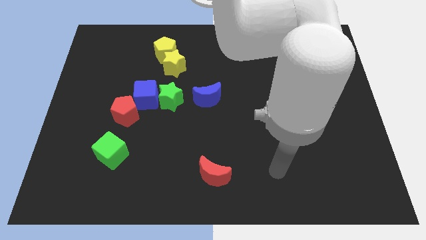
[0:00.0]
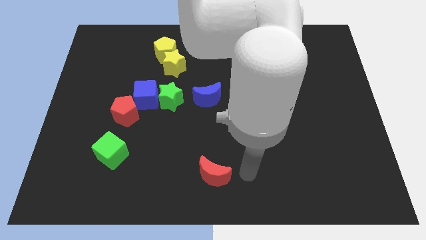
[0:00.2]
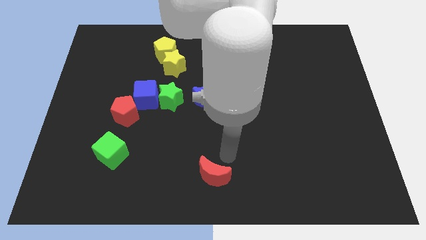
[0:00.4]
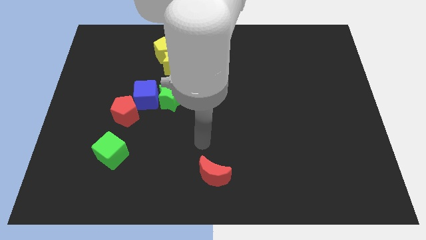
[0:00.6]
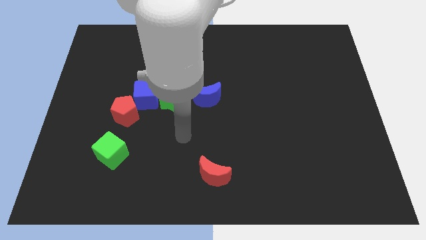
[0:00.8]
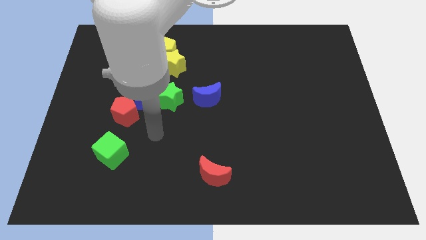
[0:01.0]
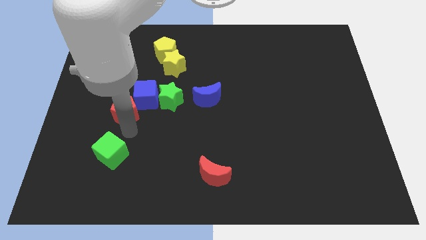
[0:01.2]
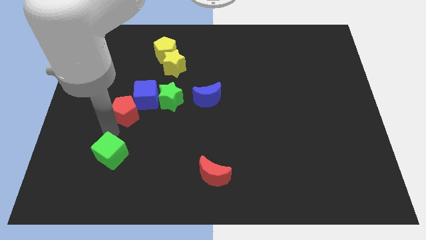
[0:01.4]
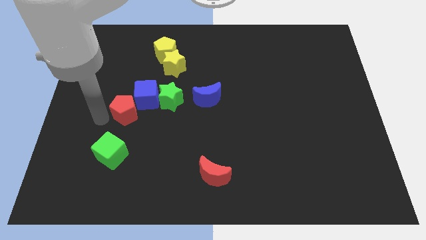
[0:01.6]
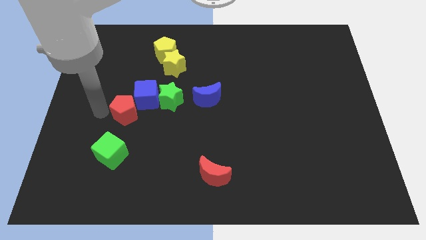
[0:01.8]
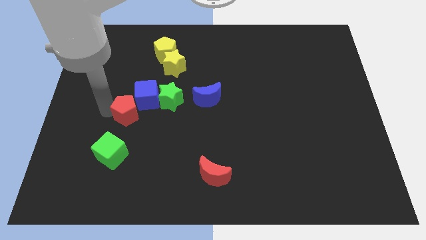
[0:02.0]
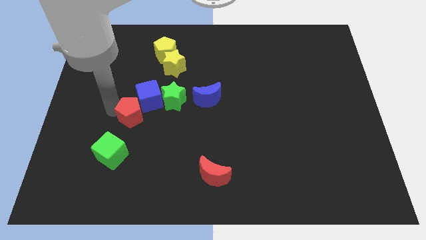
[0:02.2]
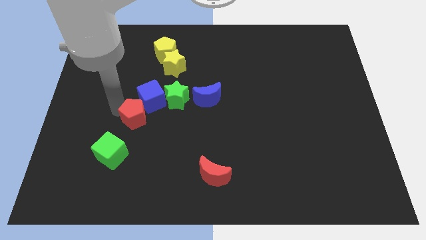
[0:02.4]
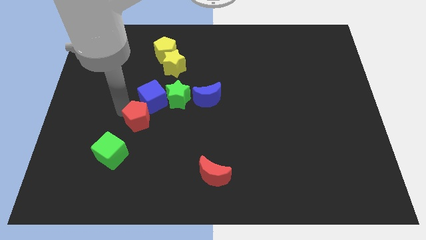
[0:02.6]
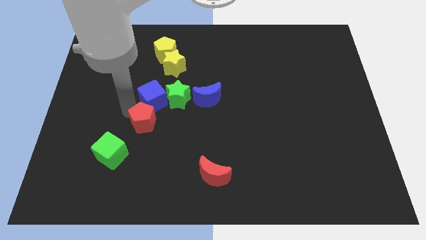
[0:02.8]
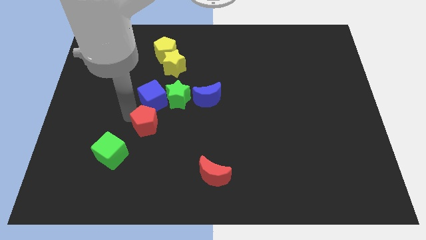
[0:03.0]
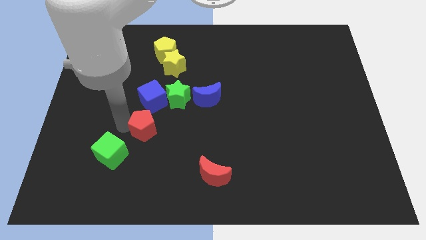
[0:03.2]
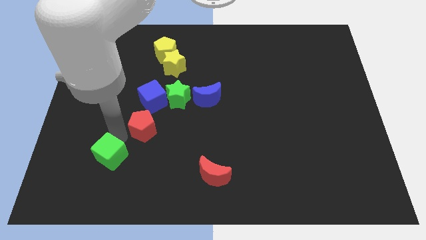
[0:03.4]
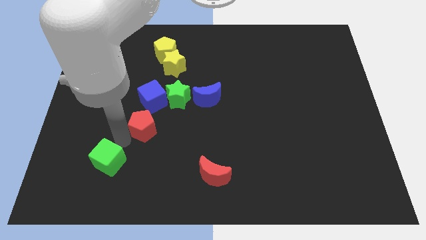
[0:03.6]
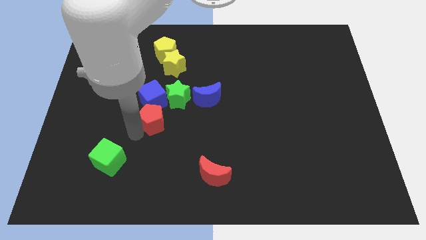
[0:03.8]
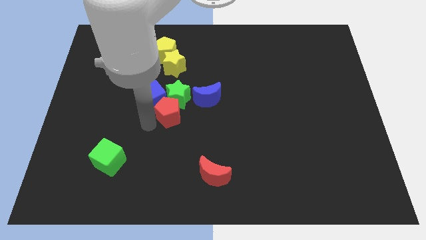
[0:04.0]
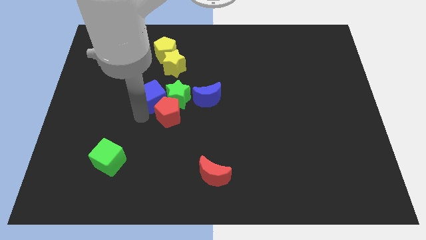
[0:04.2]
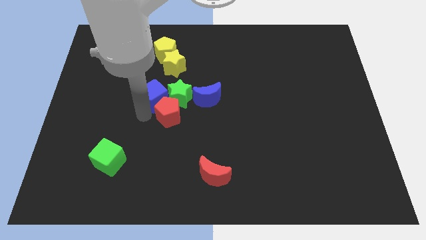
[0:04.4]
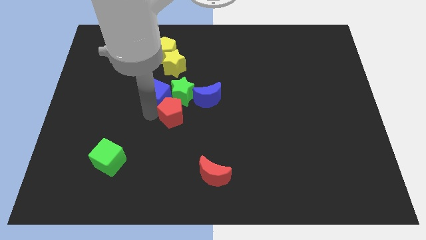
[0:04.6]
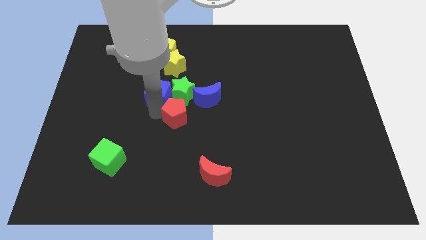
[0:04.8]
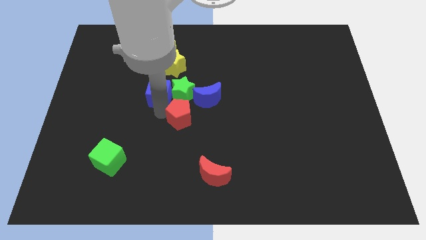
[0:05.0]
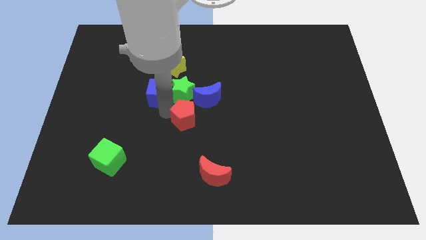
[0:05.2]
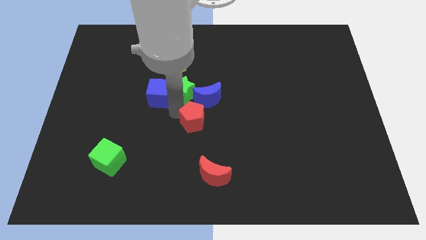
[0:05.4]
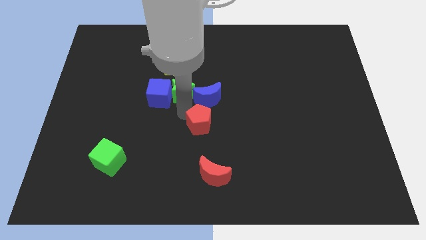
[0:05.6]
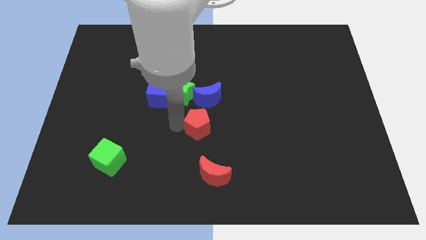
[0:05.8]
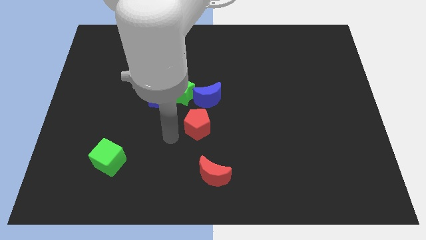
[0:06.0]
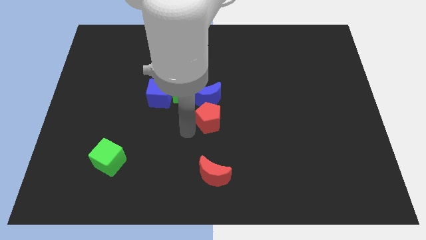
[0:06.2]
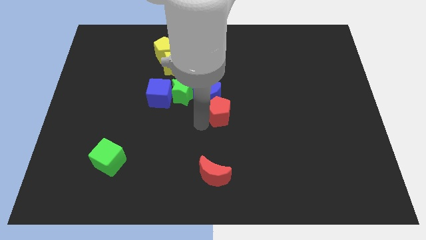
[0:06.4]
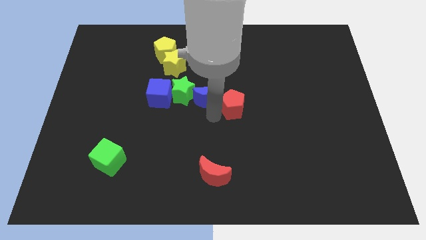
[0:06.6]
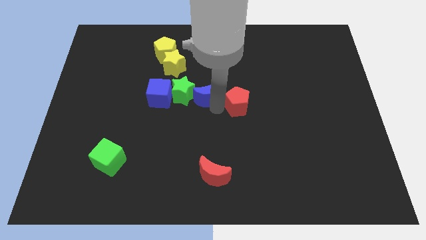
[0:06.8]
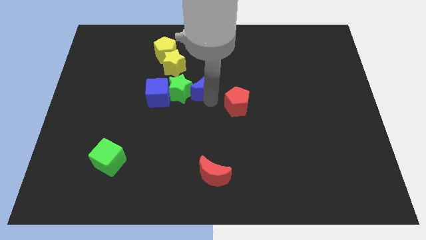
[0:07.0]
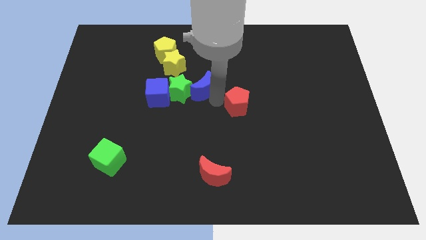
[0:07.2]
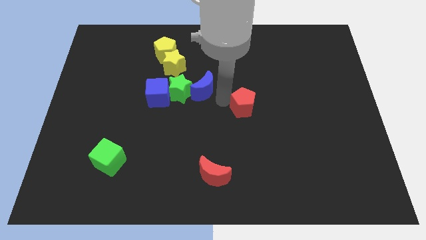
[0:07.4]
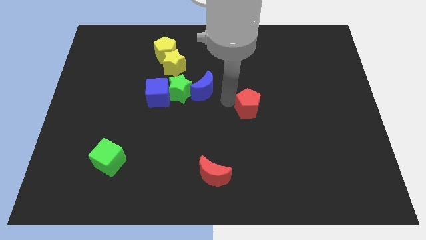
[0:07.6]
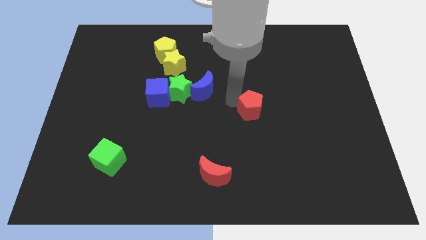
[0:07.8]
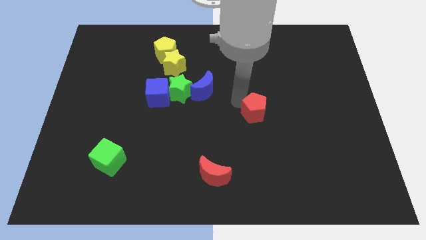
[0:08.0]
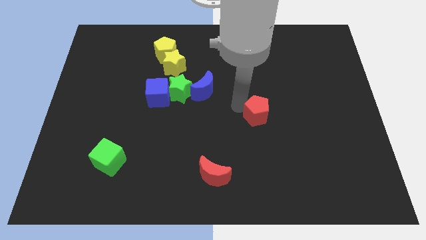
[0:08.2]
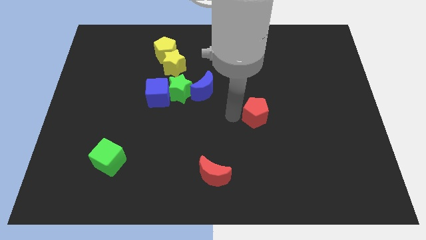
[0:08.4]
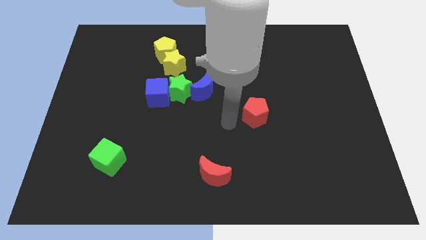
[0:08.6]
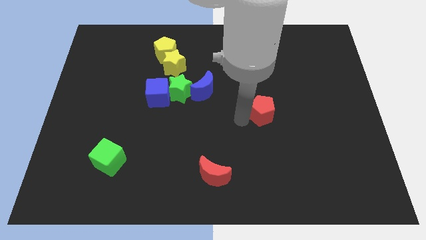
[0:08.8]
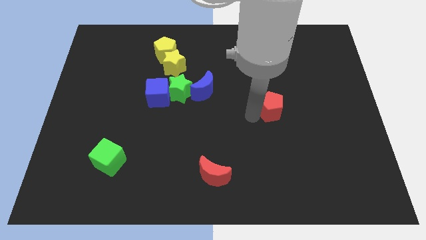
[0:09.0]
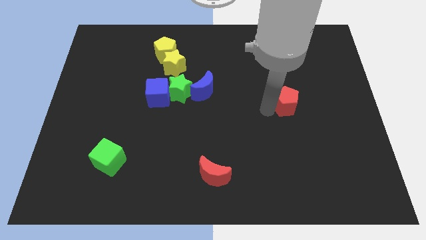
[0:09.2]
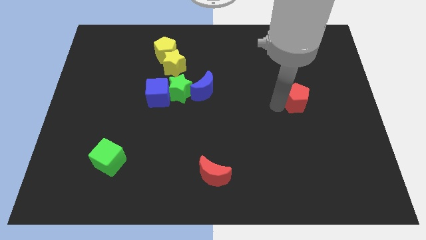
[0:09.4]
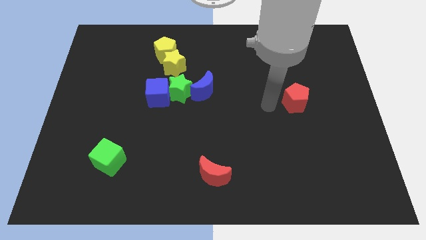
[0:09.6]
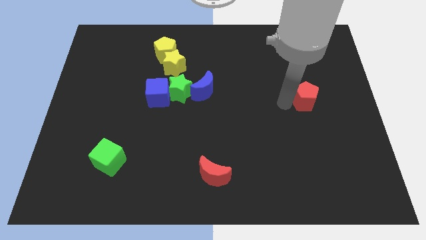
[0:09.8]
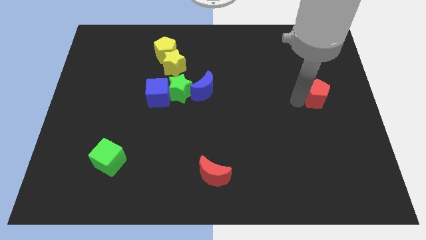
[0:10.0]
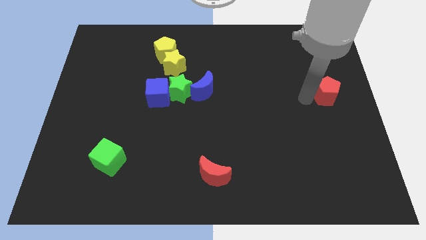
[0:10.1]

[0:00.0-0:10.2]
slide the red pentagon to the center right
